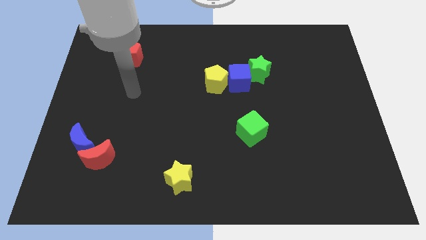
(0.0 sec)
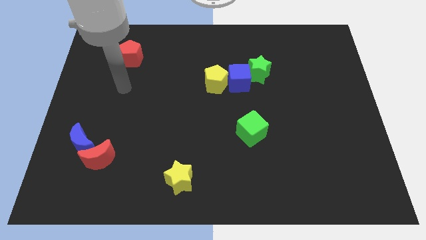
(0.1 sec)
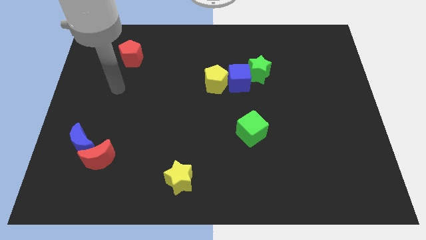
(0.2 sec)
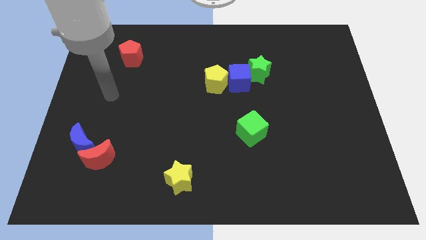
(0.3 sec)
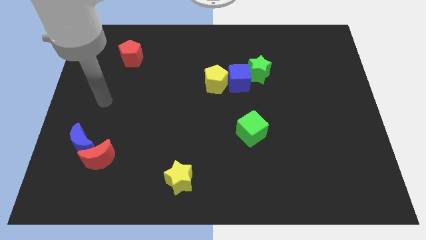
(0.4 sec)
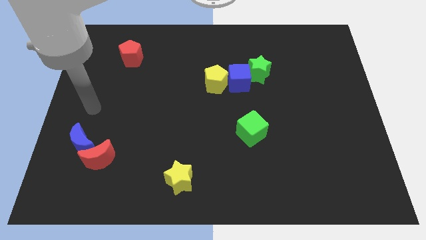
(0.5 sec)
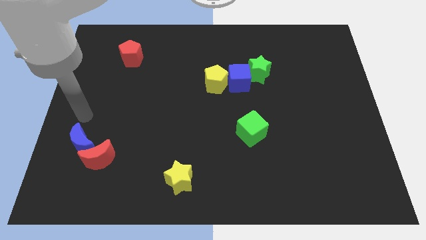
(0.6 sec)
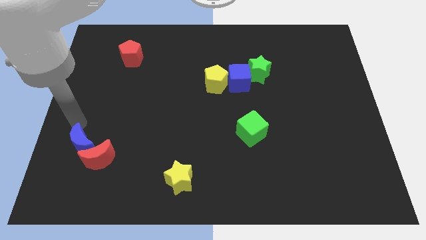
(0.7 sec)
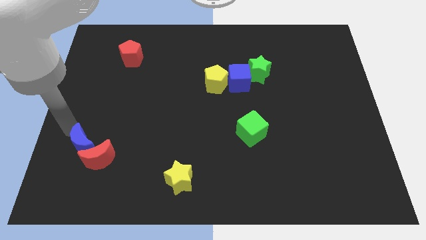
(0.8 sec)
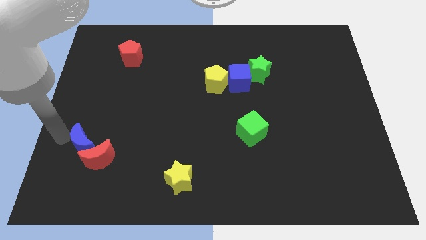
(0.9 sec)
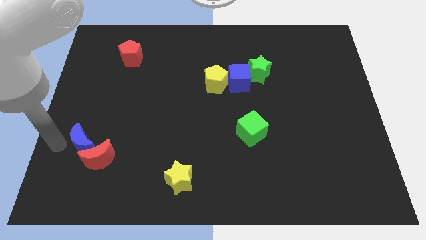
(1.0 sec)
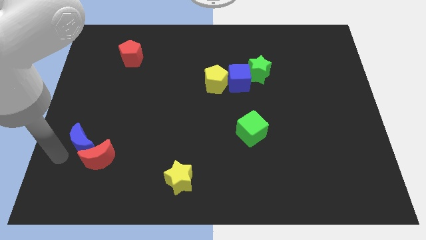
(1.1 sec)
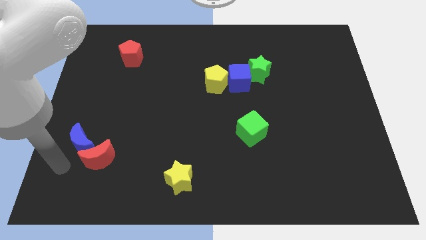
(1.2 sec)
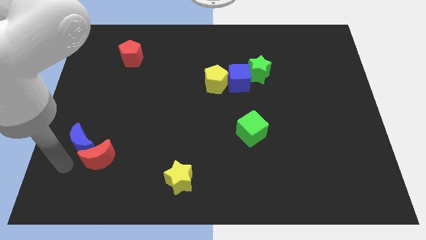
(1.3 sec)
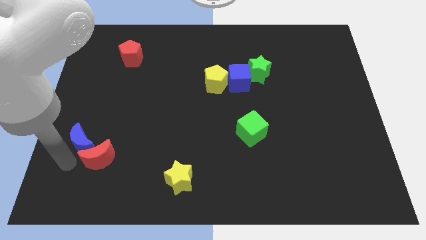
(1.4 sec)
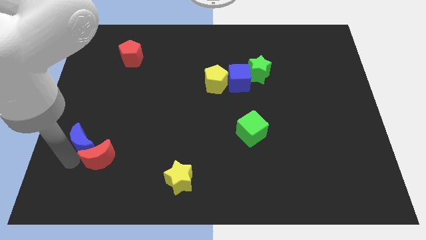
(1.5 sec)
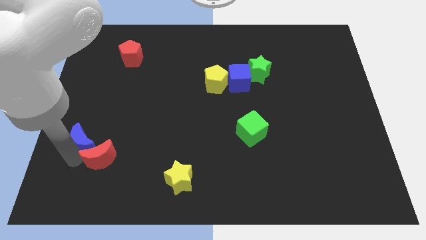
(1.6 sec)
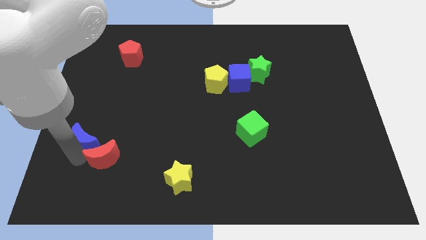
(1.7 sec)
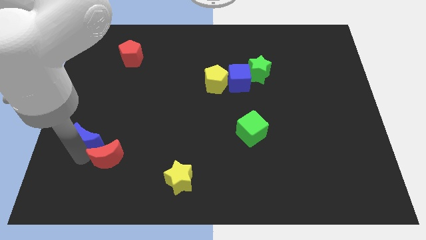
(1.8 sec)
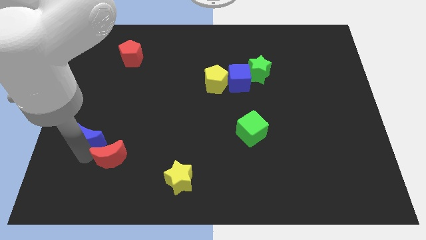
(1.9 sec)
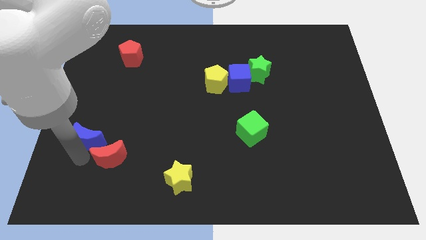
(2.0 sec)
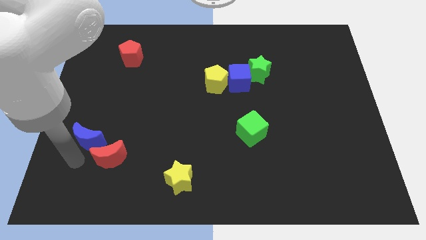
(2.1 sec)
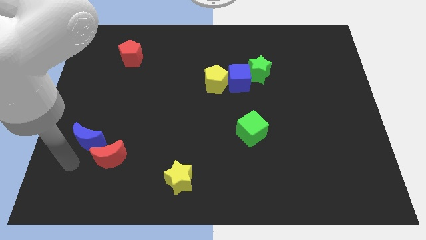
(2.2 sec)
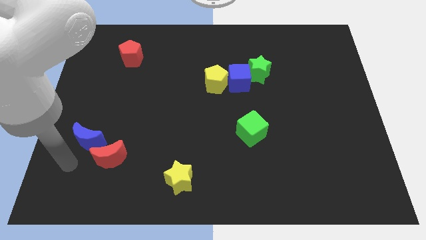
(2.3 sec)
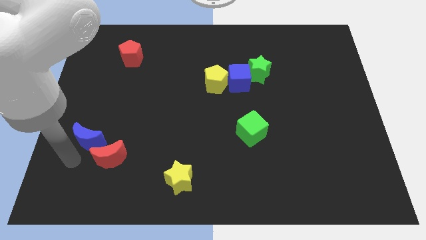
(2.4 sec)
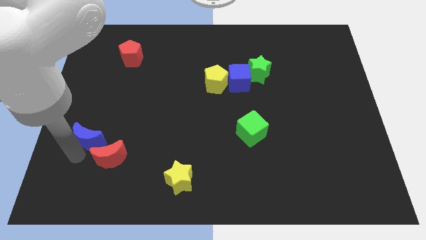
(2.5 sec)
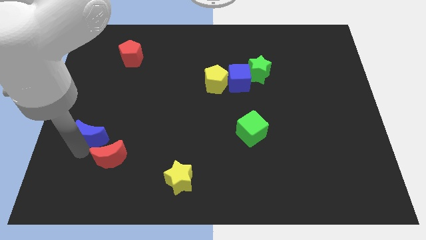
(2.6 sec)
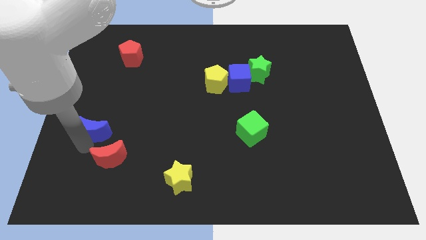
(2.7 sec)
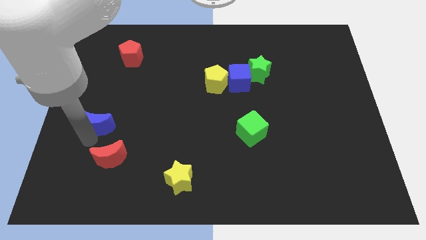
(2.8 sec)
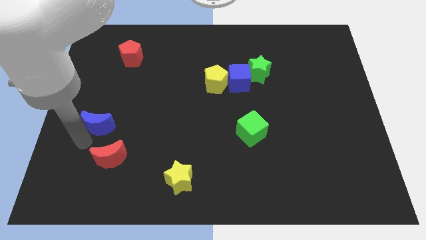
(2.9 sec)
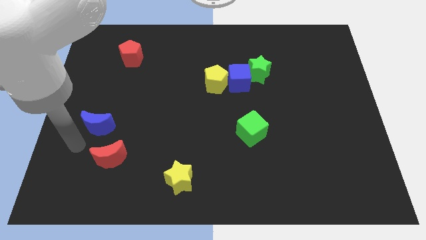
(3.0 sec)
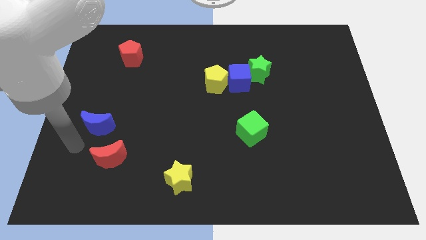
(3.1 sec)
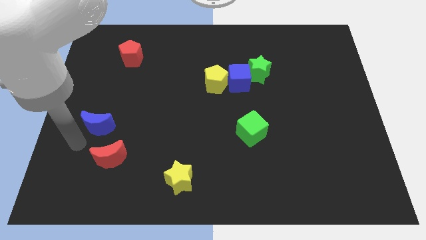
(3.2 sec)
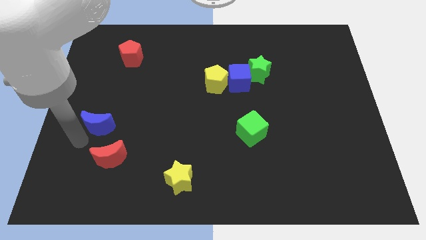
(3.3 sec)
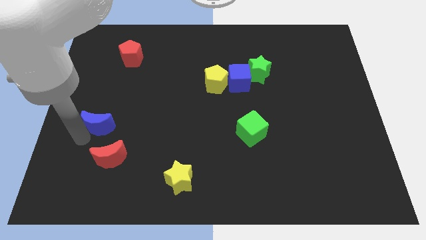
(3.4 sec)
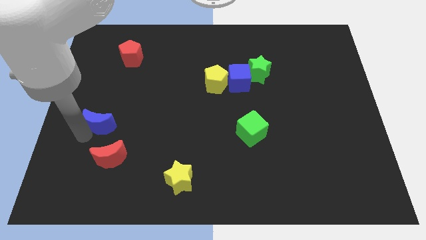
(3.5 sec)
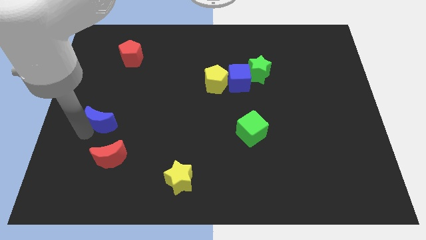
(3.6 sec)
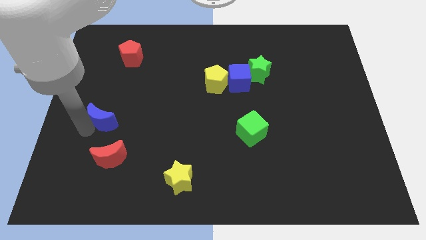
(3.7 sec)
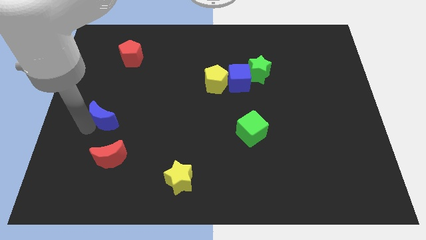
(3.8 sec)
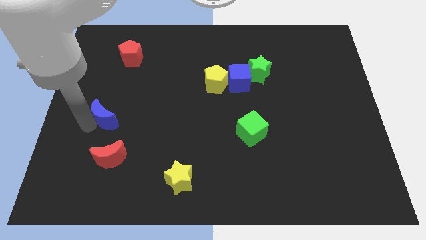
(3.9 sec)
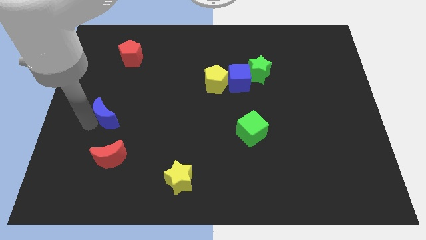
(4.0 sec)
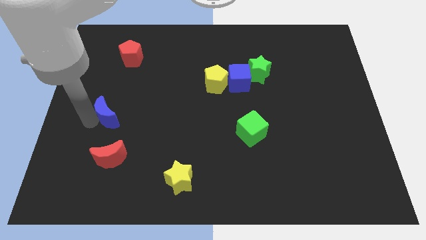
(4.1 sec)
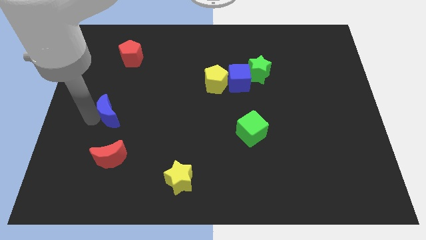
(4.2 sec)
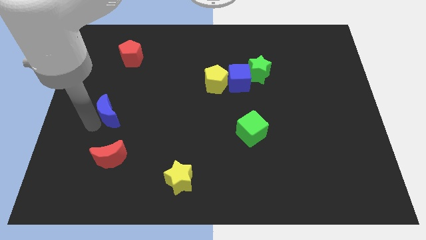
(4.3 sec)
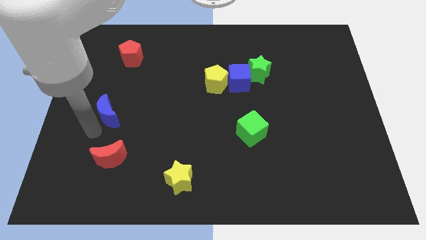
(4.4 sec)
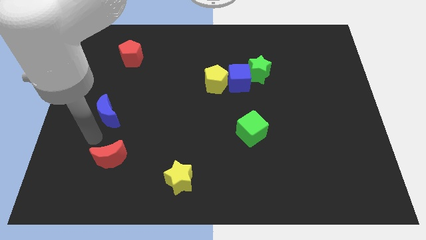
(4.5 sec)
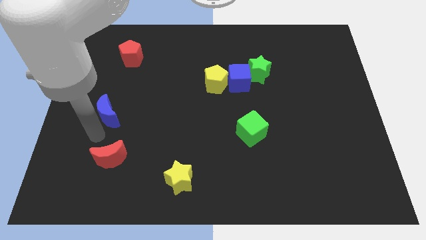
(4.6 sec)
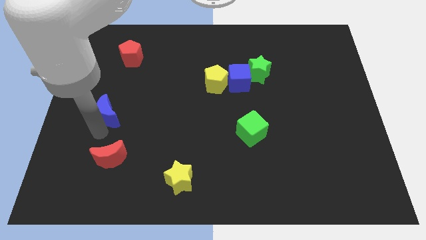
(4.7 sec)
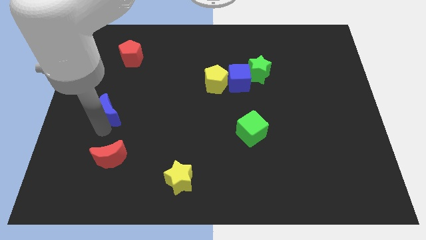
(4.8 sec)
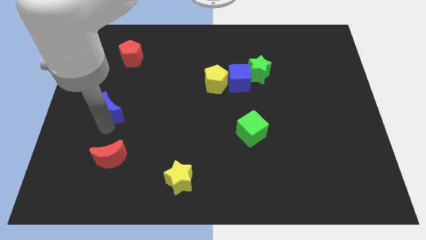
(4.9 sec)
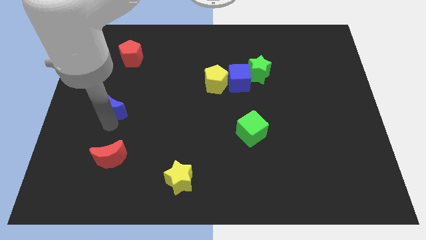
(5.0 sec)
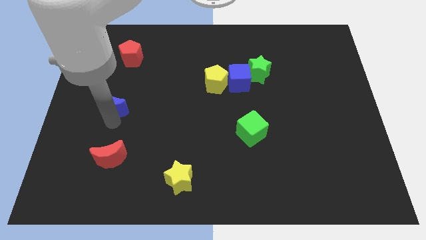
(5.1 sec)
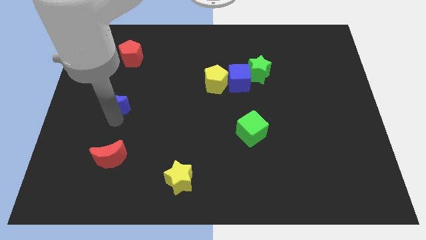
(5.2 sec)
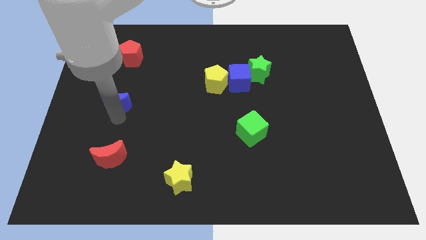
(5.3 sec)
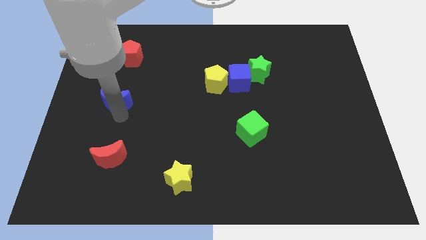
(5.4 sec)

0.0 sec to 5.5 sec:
move the blue moon to the bottom side of the red pentagon

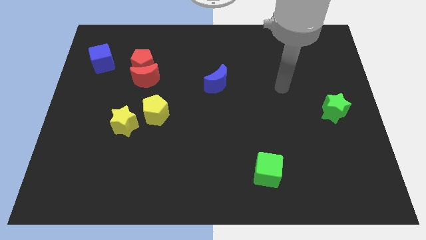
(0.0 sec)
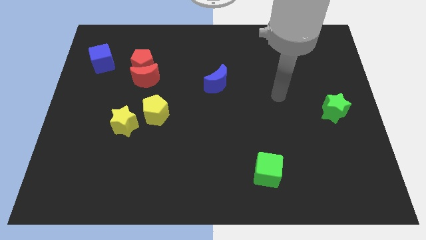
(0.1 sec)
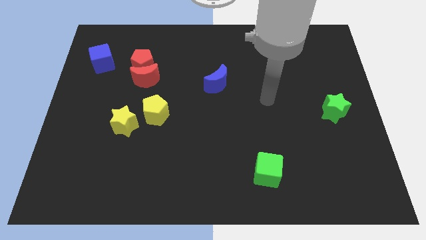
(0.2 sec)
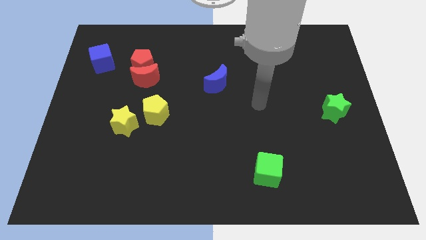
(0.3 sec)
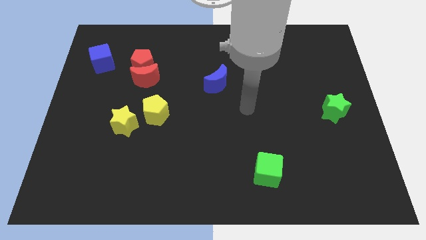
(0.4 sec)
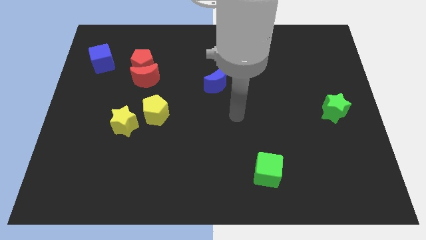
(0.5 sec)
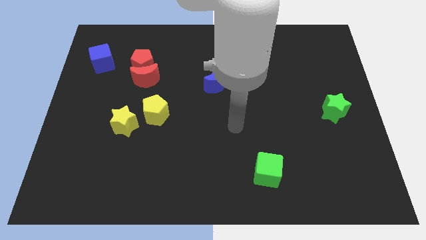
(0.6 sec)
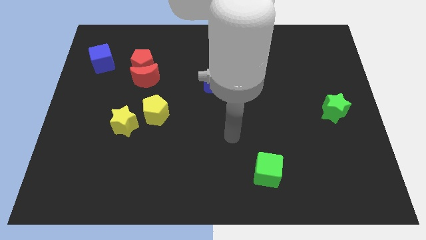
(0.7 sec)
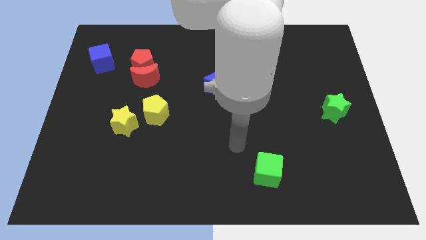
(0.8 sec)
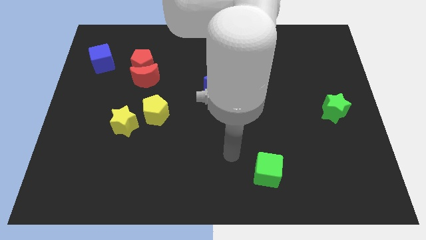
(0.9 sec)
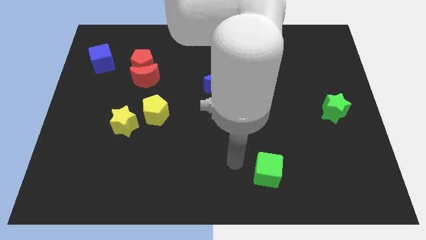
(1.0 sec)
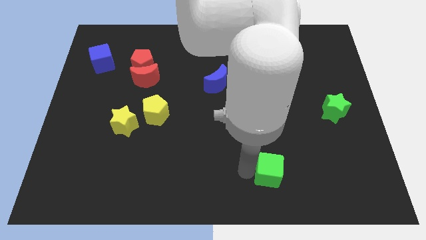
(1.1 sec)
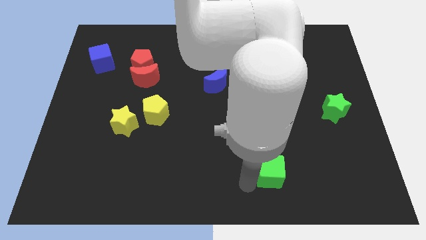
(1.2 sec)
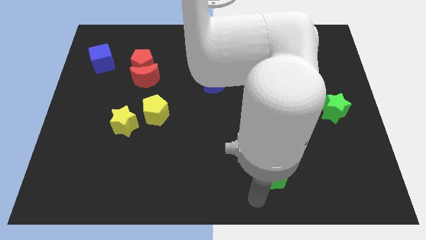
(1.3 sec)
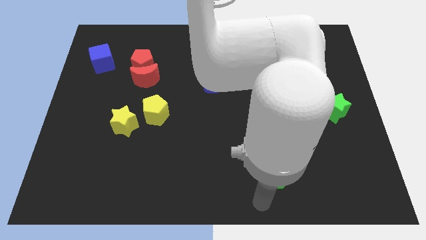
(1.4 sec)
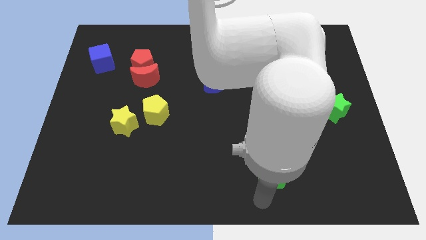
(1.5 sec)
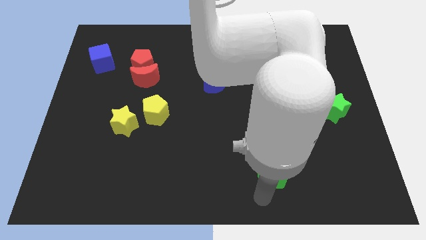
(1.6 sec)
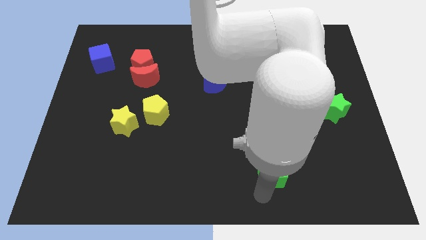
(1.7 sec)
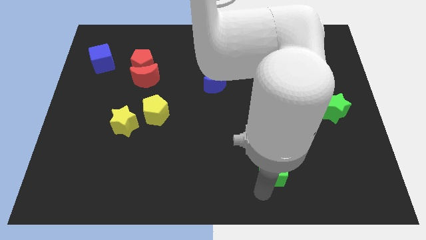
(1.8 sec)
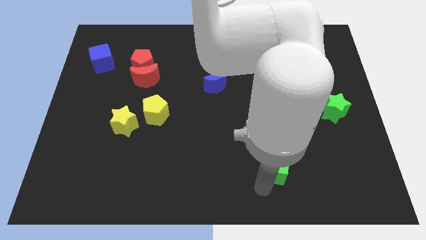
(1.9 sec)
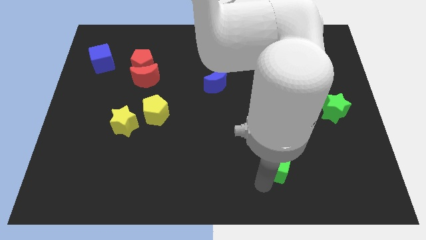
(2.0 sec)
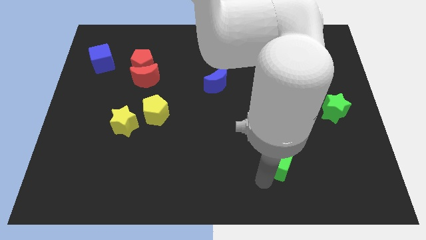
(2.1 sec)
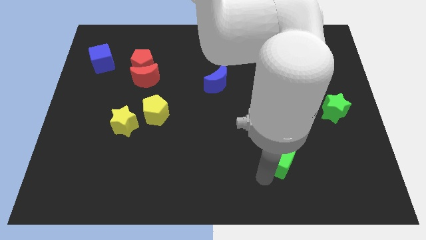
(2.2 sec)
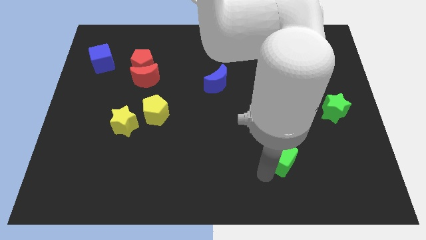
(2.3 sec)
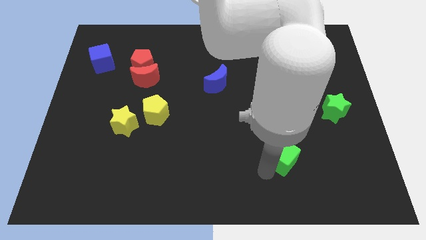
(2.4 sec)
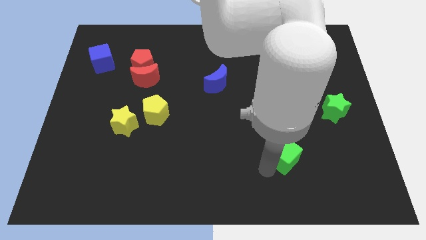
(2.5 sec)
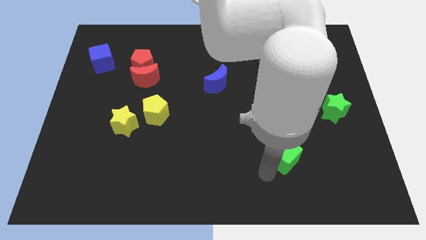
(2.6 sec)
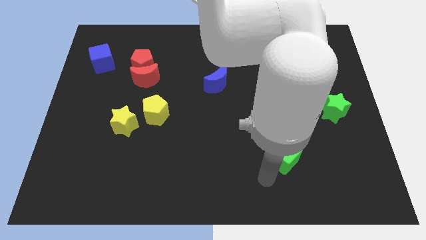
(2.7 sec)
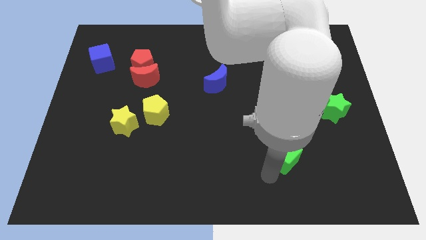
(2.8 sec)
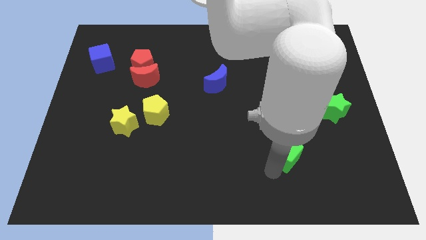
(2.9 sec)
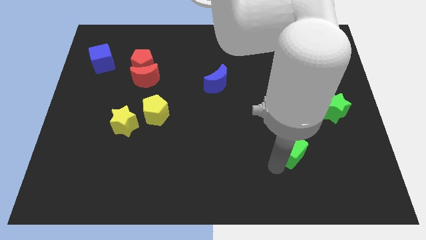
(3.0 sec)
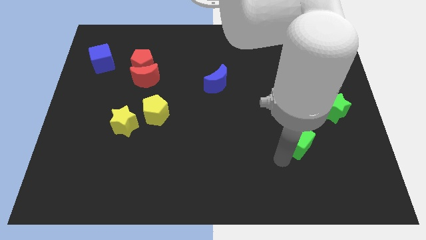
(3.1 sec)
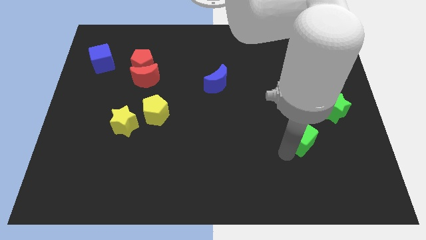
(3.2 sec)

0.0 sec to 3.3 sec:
push the green cube to the bottom left side of the green star
